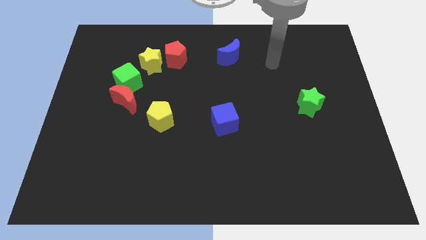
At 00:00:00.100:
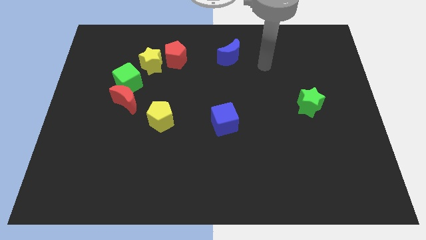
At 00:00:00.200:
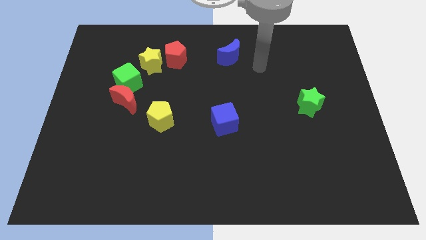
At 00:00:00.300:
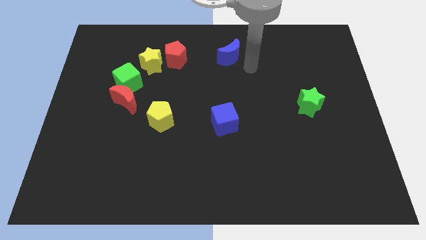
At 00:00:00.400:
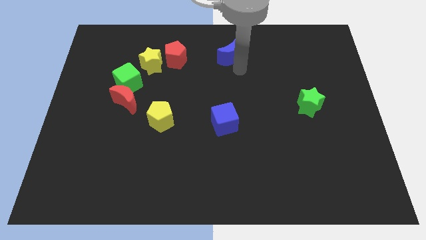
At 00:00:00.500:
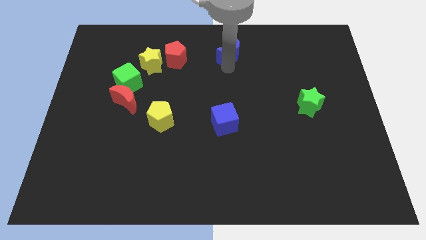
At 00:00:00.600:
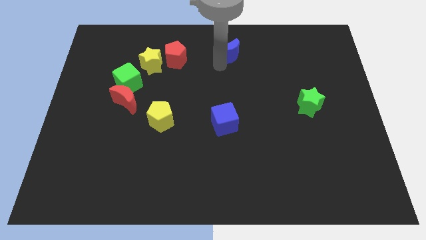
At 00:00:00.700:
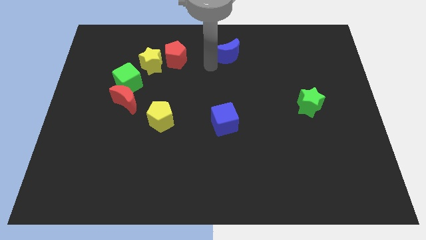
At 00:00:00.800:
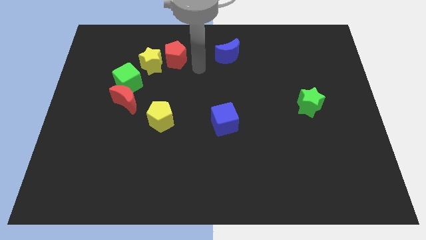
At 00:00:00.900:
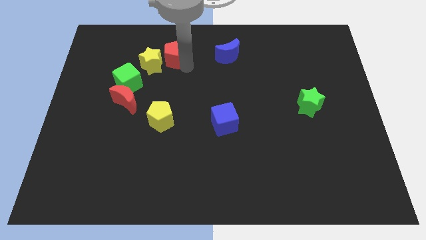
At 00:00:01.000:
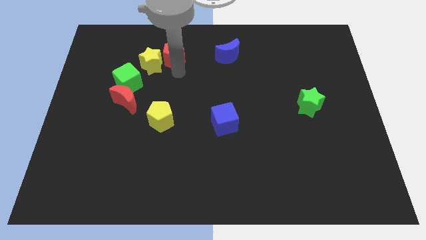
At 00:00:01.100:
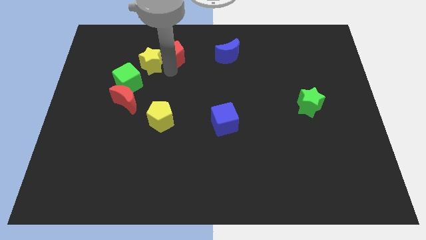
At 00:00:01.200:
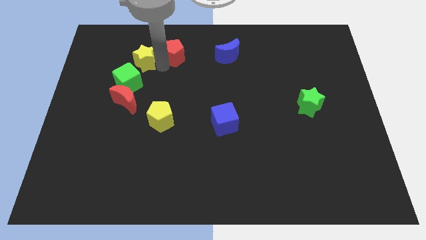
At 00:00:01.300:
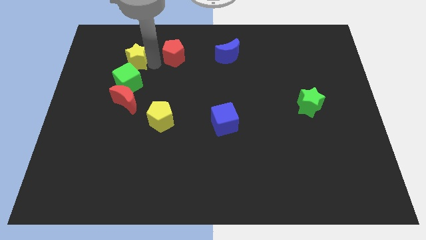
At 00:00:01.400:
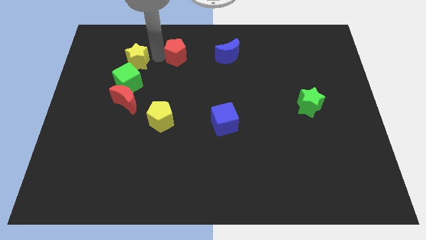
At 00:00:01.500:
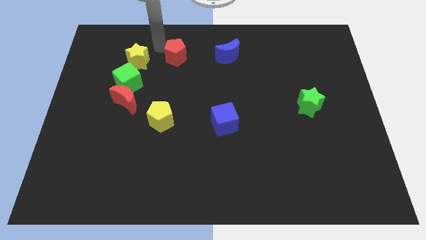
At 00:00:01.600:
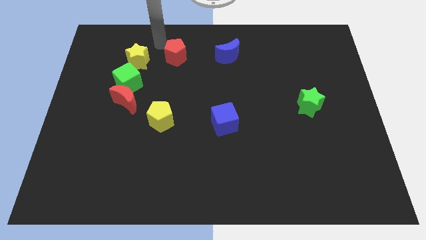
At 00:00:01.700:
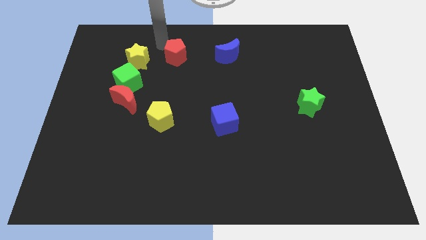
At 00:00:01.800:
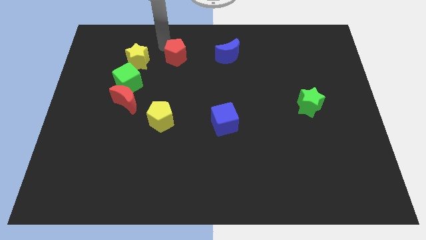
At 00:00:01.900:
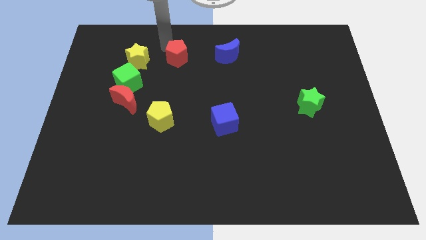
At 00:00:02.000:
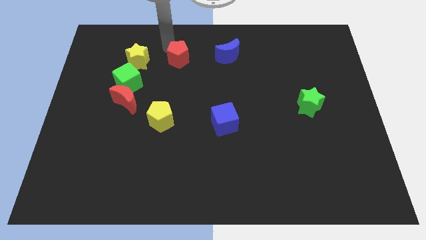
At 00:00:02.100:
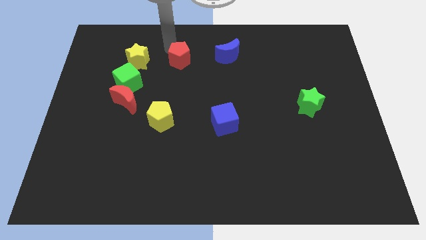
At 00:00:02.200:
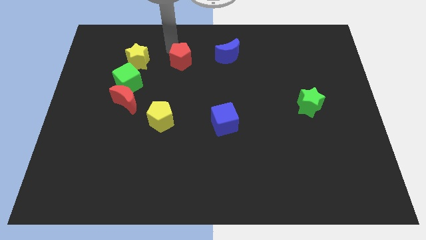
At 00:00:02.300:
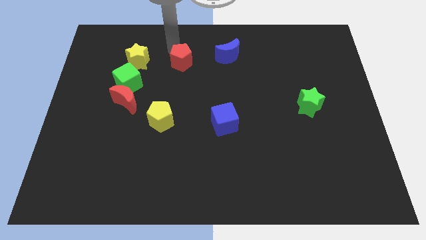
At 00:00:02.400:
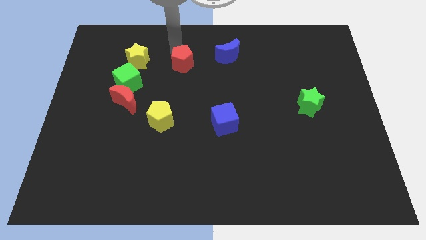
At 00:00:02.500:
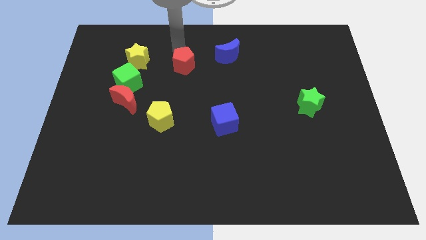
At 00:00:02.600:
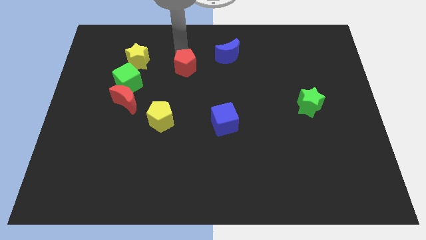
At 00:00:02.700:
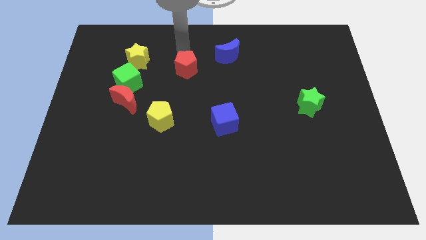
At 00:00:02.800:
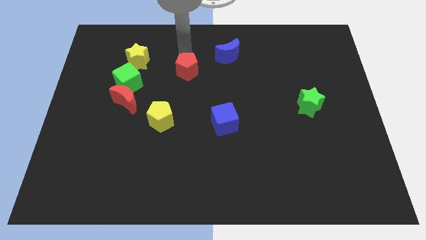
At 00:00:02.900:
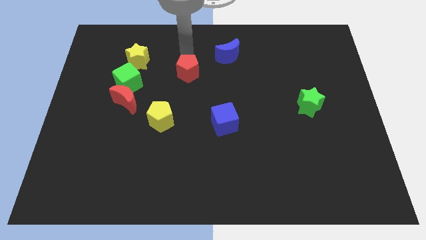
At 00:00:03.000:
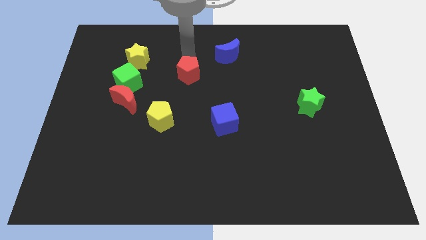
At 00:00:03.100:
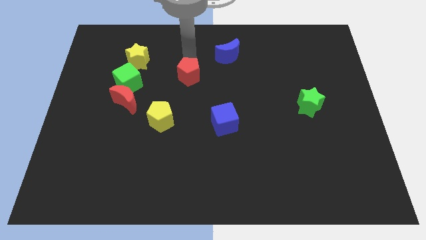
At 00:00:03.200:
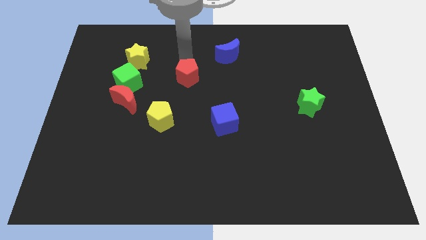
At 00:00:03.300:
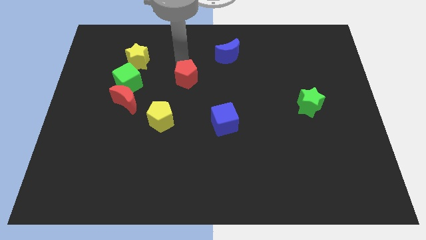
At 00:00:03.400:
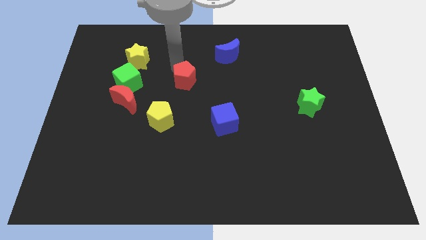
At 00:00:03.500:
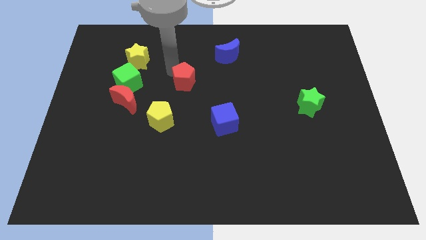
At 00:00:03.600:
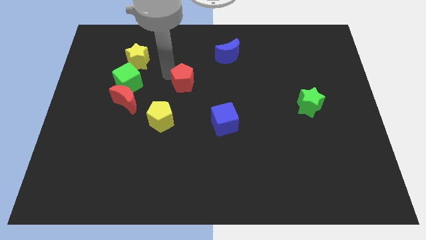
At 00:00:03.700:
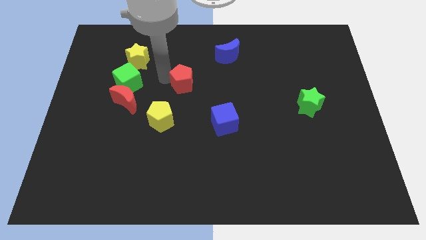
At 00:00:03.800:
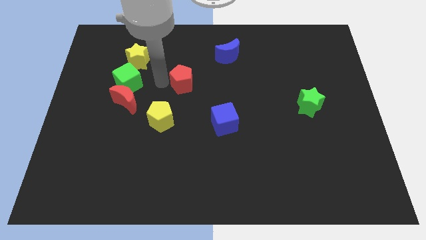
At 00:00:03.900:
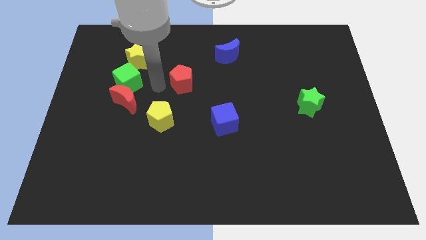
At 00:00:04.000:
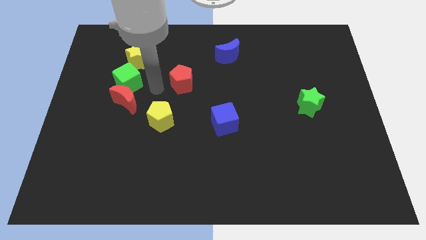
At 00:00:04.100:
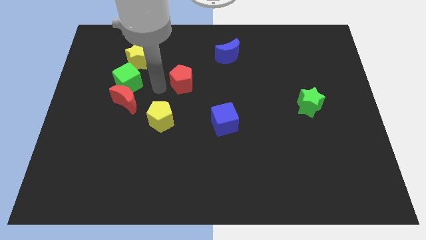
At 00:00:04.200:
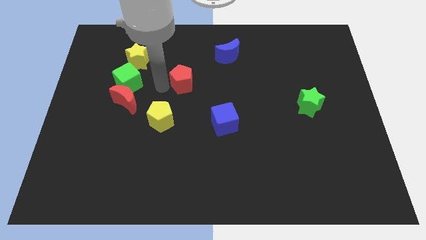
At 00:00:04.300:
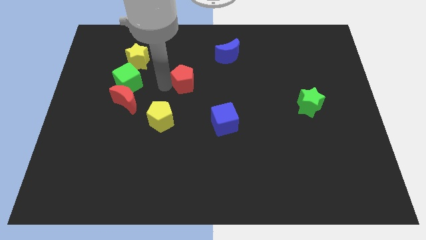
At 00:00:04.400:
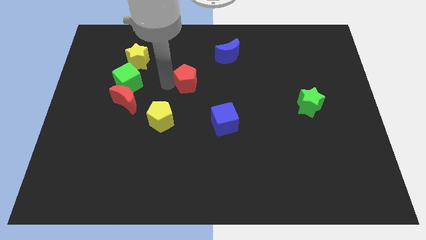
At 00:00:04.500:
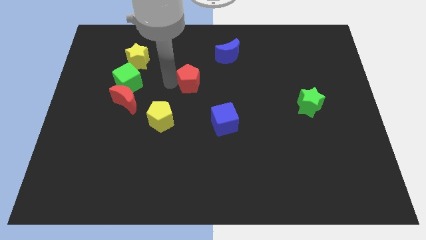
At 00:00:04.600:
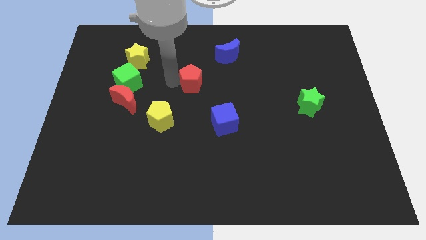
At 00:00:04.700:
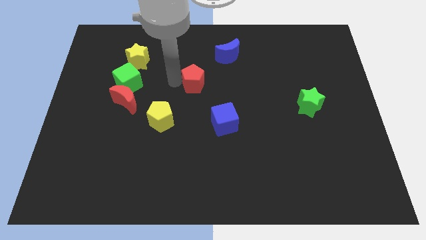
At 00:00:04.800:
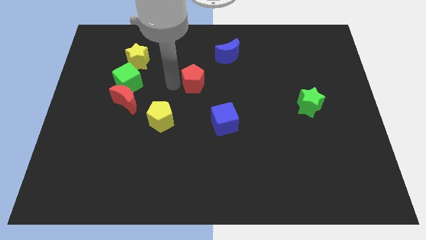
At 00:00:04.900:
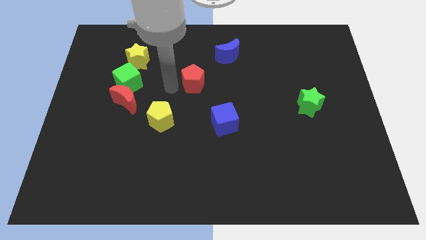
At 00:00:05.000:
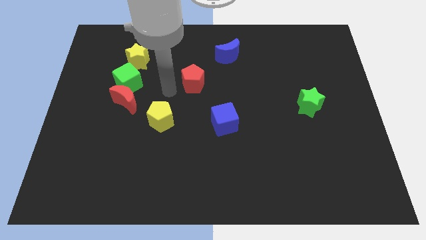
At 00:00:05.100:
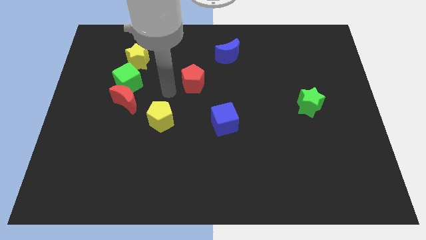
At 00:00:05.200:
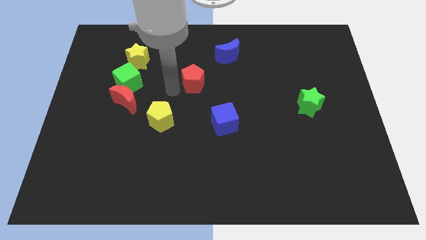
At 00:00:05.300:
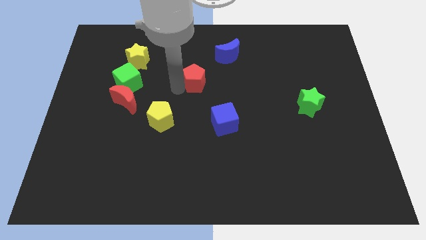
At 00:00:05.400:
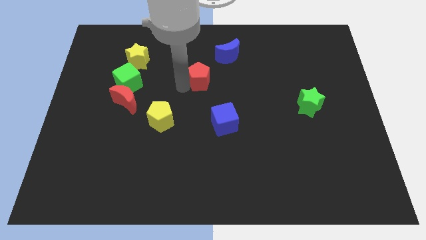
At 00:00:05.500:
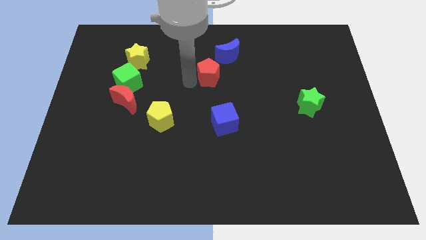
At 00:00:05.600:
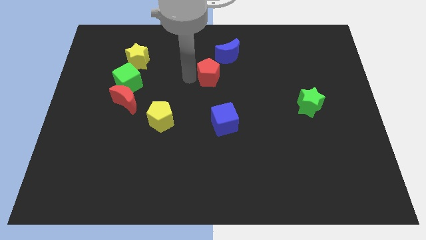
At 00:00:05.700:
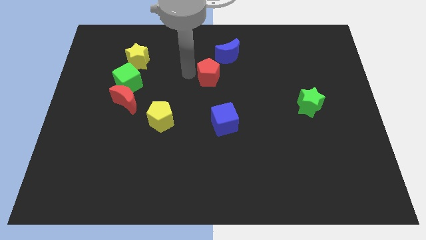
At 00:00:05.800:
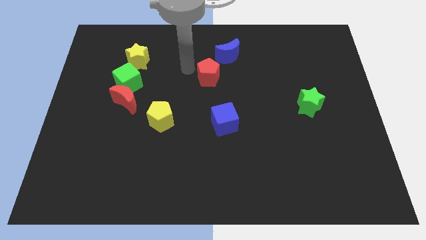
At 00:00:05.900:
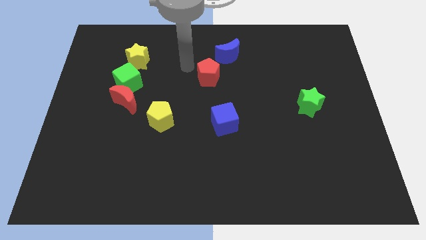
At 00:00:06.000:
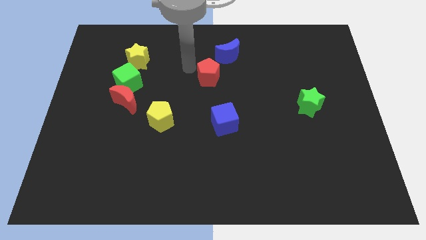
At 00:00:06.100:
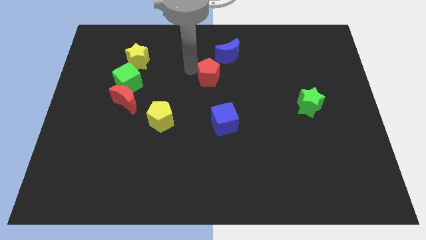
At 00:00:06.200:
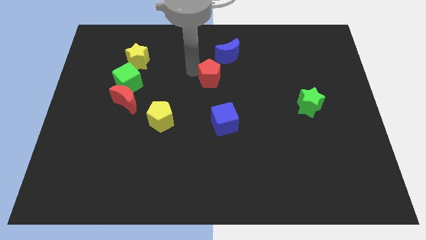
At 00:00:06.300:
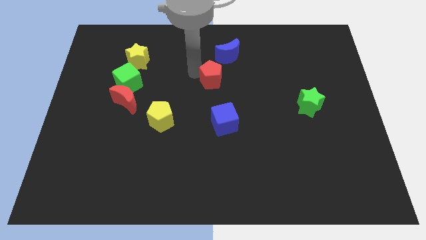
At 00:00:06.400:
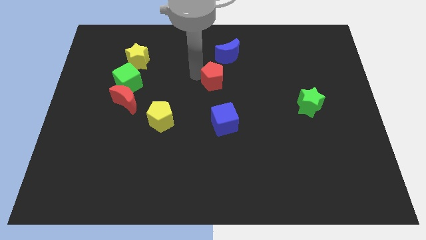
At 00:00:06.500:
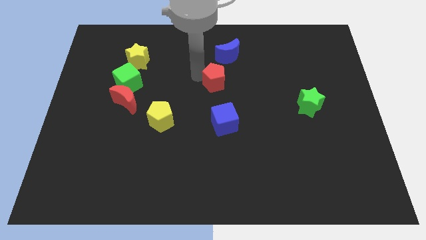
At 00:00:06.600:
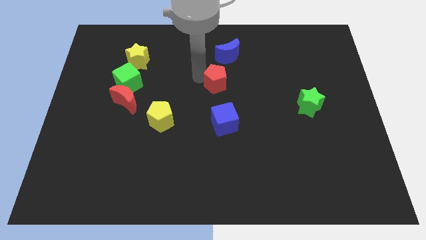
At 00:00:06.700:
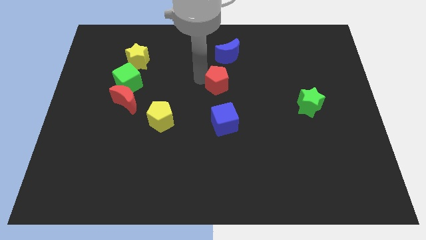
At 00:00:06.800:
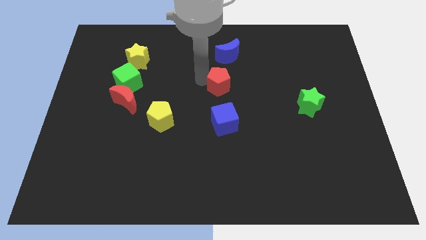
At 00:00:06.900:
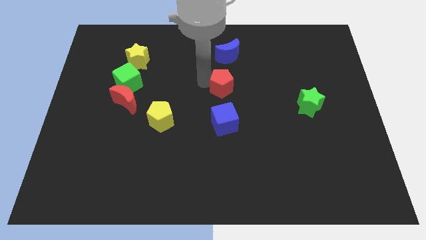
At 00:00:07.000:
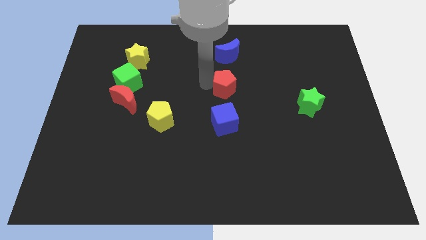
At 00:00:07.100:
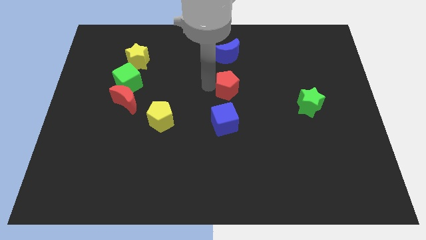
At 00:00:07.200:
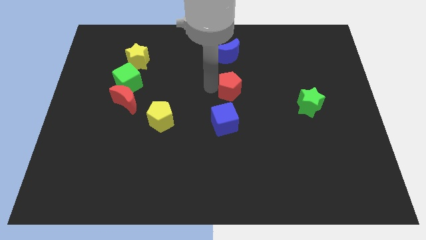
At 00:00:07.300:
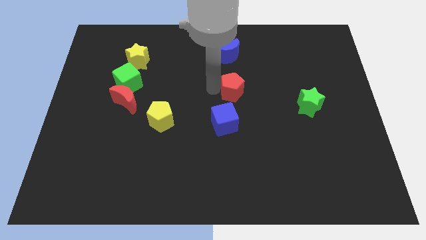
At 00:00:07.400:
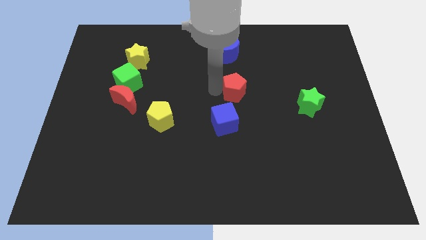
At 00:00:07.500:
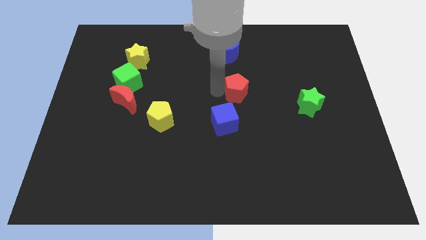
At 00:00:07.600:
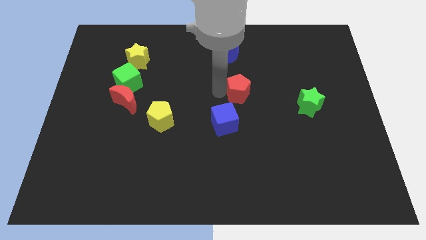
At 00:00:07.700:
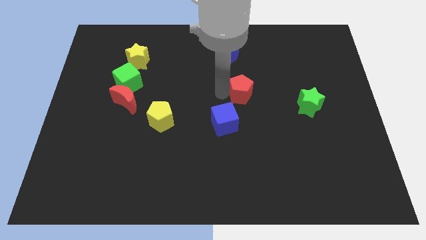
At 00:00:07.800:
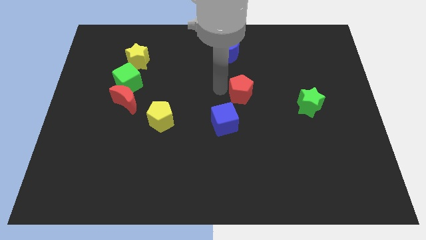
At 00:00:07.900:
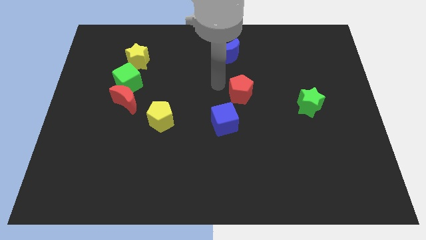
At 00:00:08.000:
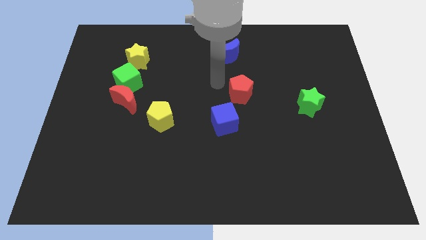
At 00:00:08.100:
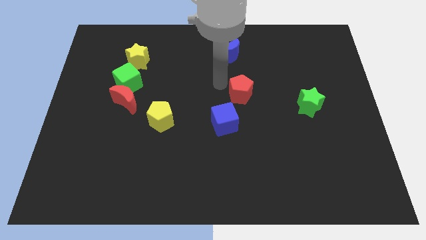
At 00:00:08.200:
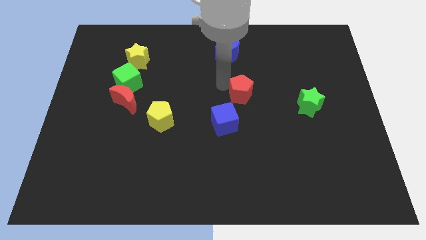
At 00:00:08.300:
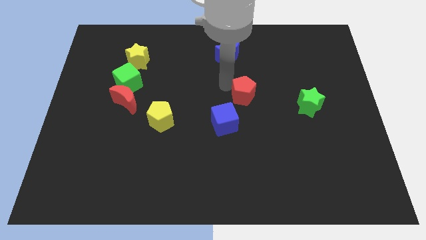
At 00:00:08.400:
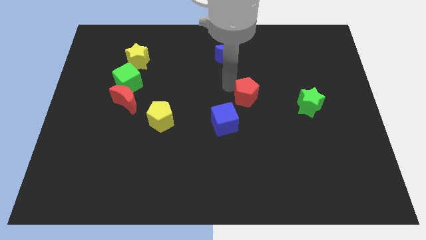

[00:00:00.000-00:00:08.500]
push the red pentagon just left of the green star
